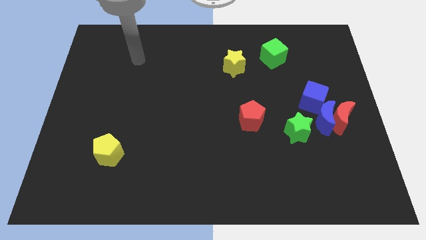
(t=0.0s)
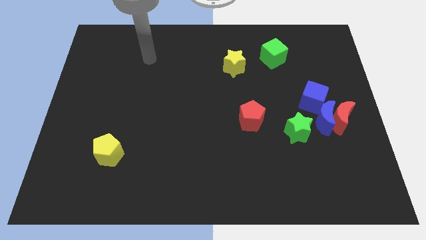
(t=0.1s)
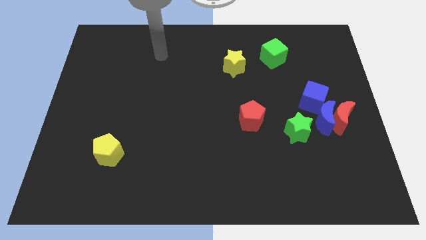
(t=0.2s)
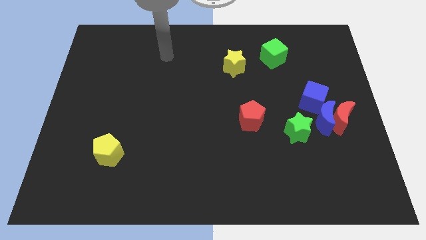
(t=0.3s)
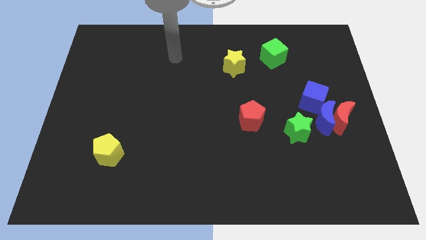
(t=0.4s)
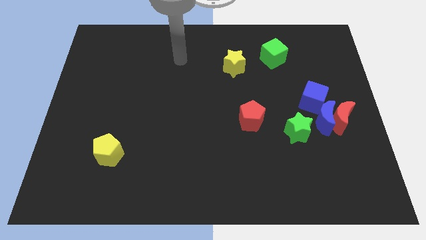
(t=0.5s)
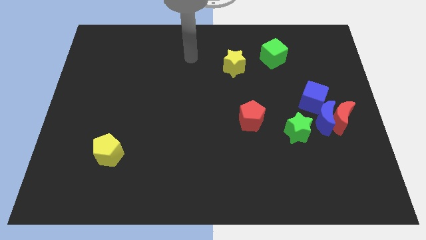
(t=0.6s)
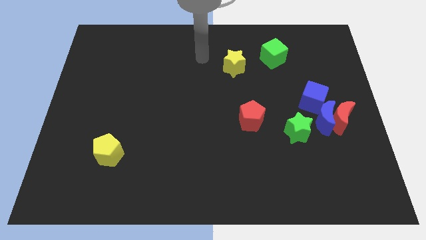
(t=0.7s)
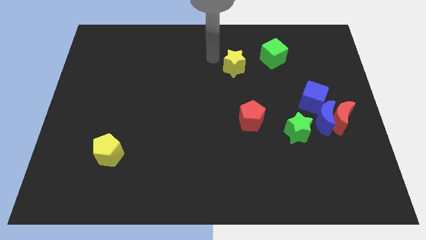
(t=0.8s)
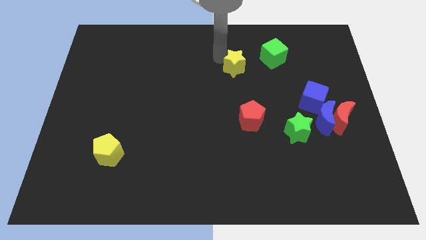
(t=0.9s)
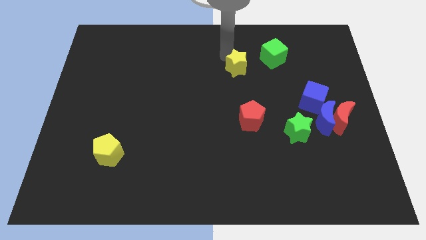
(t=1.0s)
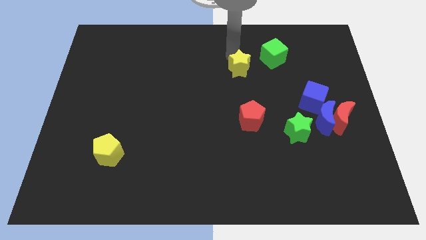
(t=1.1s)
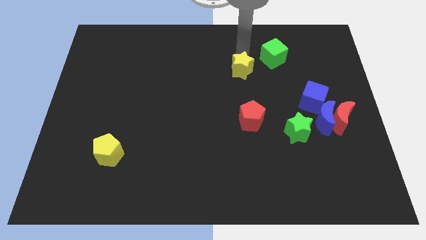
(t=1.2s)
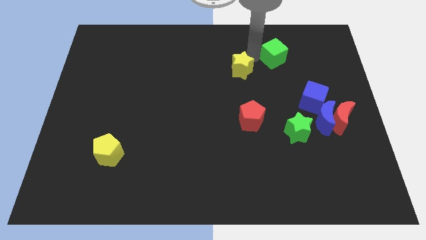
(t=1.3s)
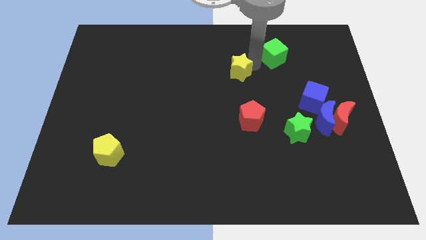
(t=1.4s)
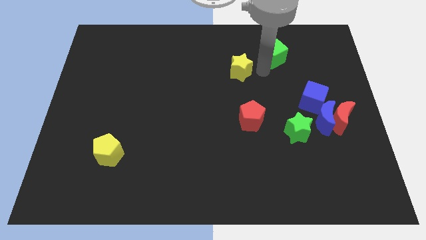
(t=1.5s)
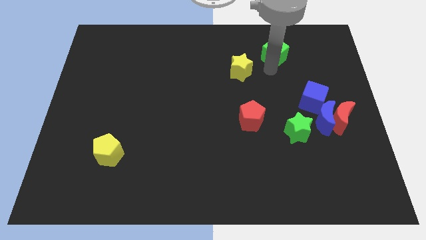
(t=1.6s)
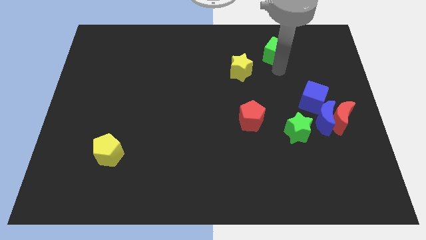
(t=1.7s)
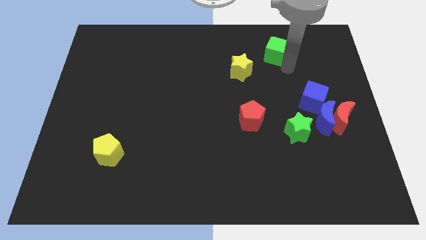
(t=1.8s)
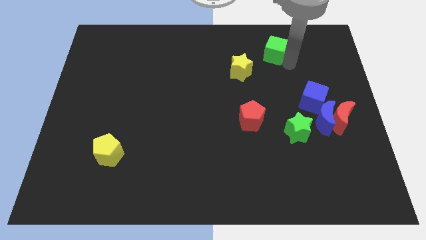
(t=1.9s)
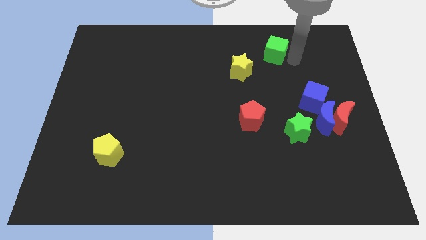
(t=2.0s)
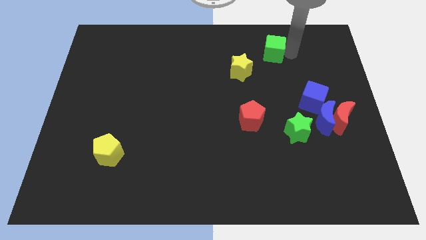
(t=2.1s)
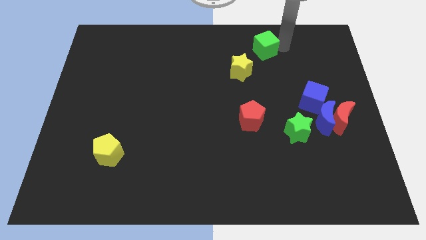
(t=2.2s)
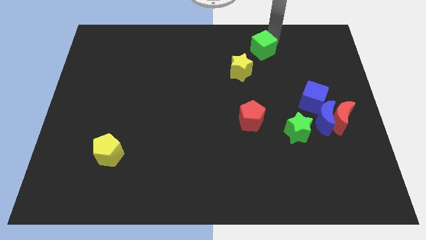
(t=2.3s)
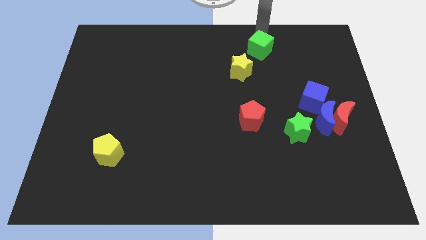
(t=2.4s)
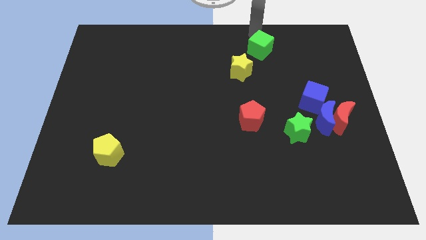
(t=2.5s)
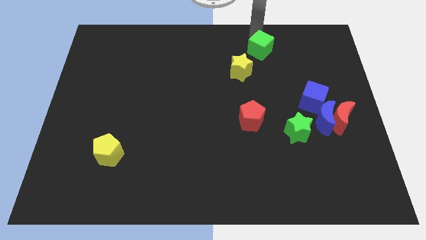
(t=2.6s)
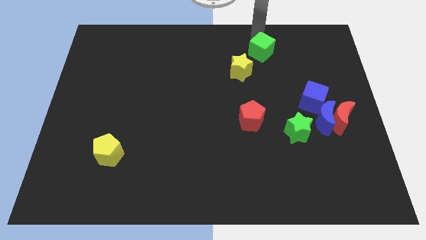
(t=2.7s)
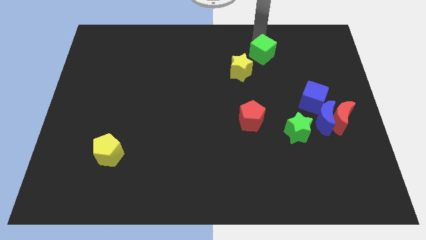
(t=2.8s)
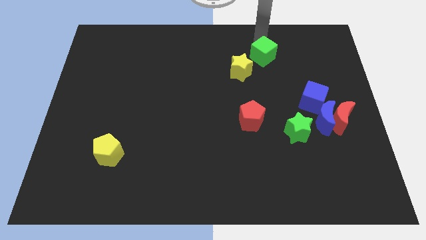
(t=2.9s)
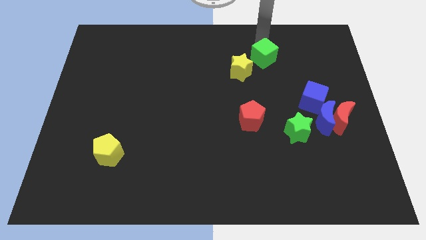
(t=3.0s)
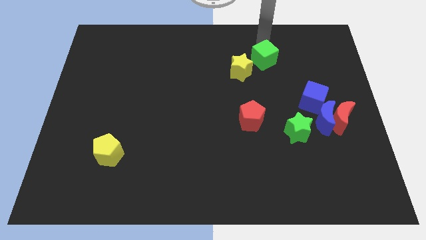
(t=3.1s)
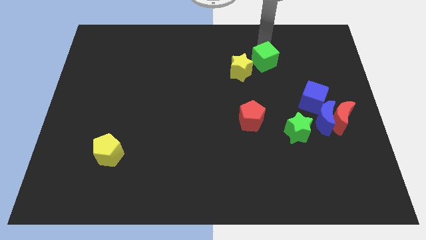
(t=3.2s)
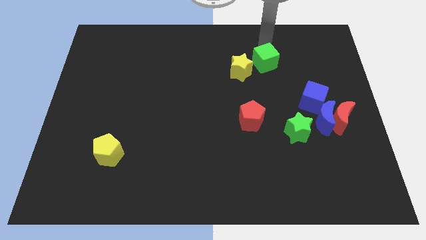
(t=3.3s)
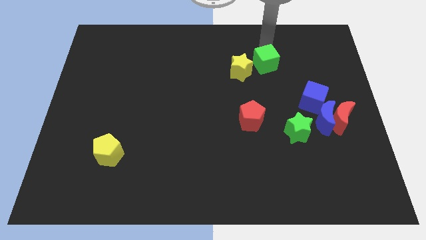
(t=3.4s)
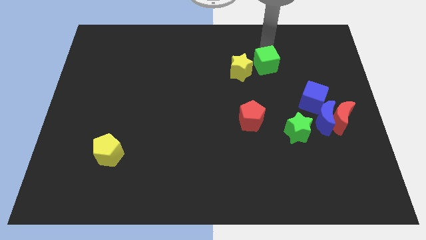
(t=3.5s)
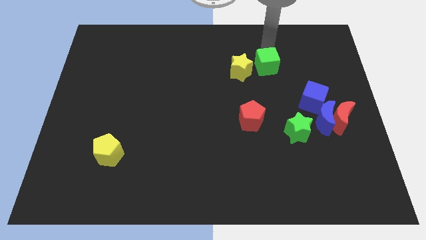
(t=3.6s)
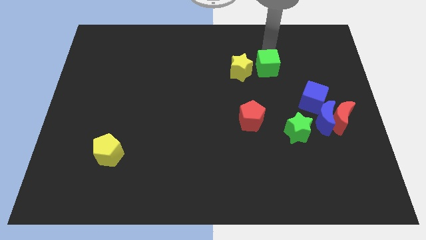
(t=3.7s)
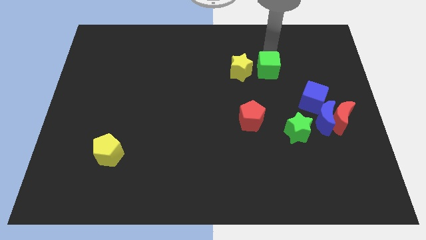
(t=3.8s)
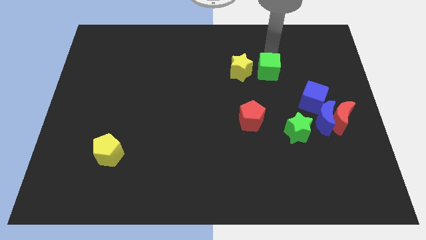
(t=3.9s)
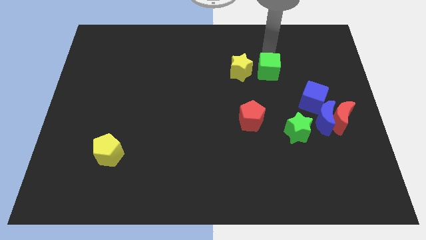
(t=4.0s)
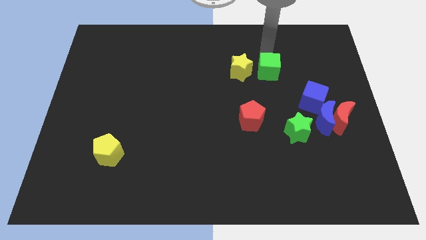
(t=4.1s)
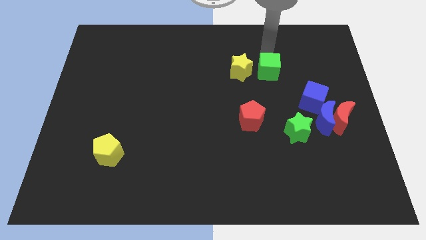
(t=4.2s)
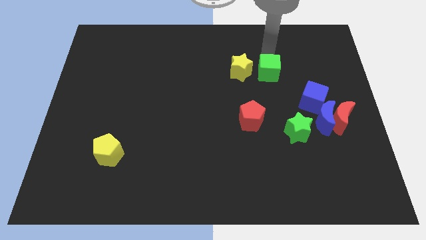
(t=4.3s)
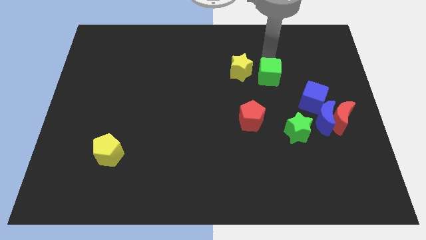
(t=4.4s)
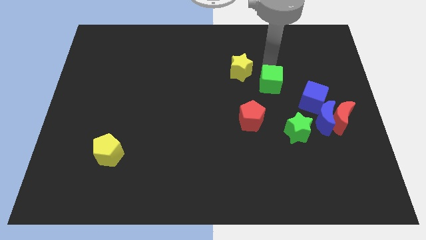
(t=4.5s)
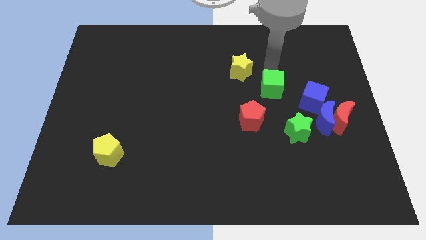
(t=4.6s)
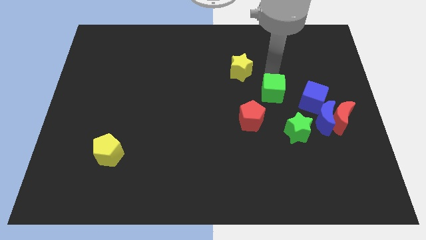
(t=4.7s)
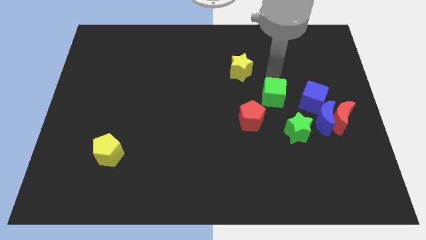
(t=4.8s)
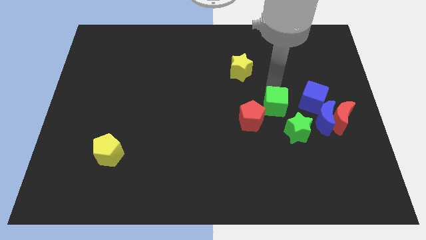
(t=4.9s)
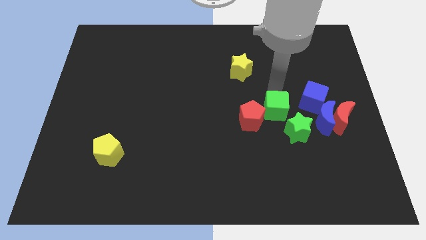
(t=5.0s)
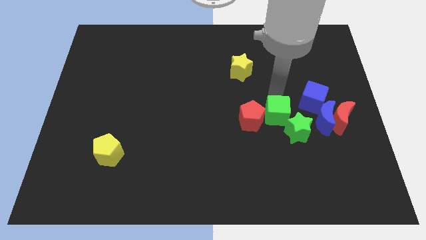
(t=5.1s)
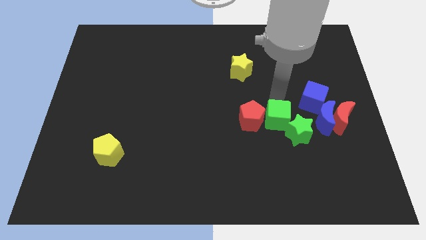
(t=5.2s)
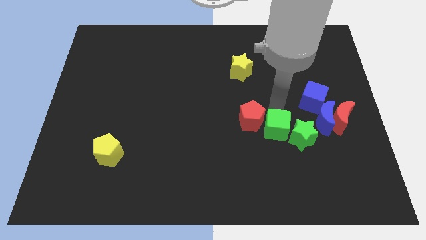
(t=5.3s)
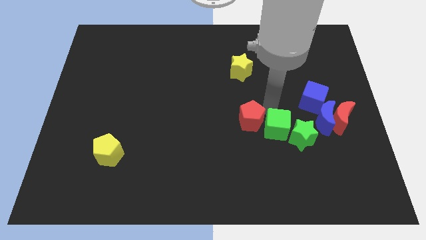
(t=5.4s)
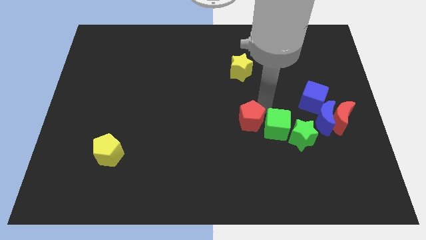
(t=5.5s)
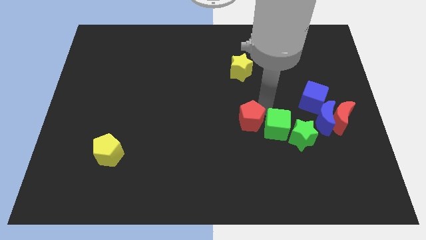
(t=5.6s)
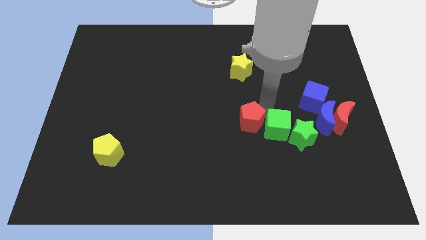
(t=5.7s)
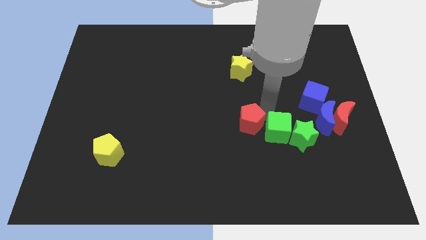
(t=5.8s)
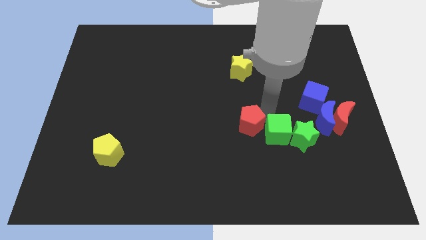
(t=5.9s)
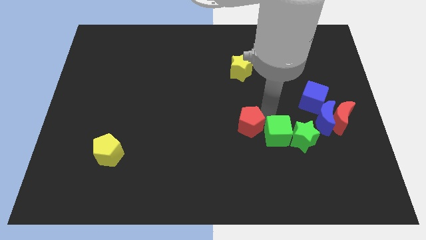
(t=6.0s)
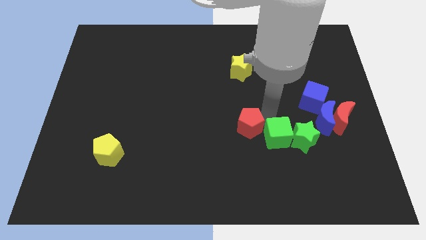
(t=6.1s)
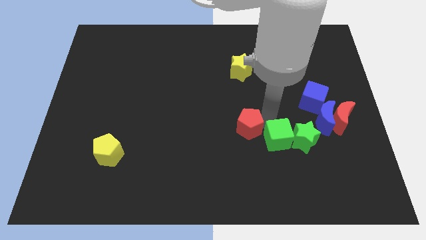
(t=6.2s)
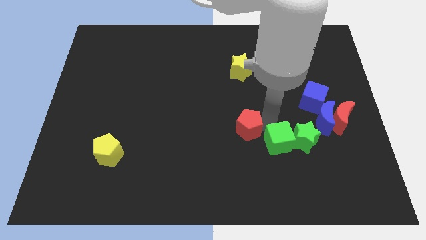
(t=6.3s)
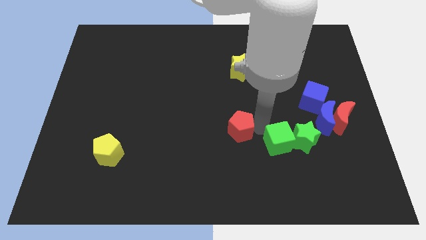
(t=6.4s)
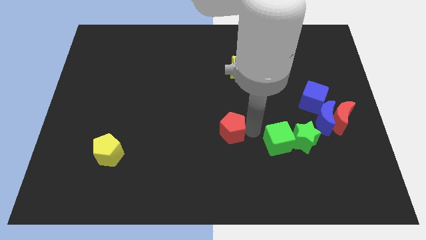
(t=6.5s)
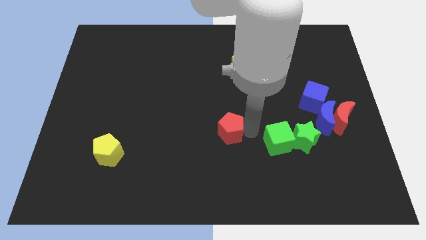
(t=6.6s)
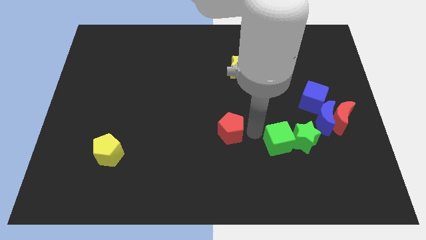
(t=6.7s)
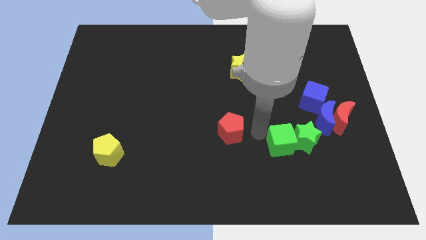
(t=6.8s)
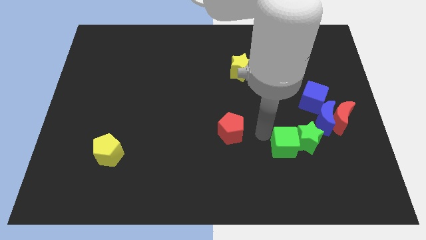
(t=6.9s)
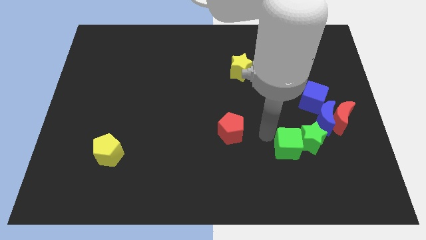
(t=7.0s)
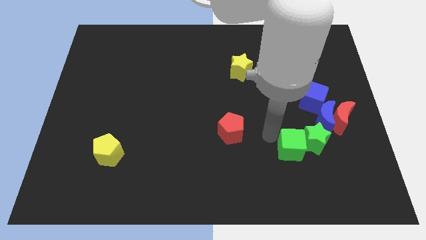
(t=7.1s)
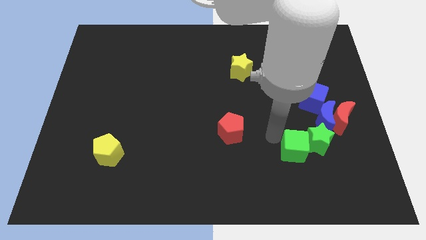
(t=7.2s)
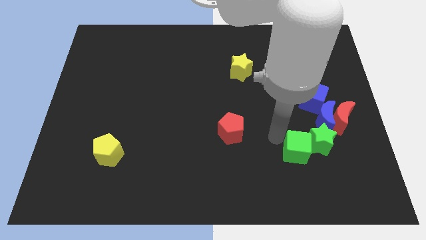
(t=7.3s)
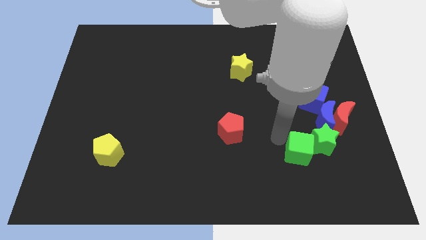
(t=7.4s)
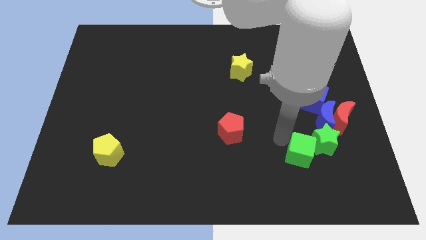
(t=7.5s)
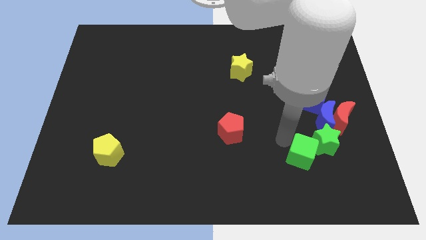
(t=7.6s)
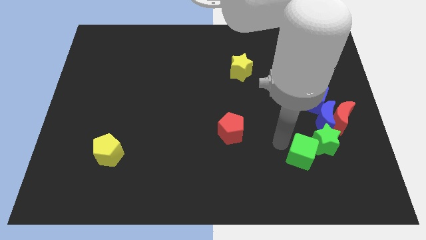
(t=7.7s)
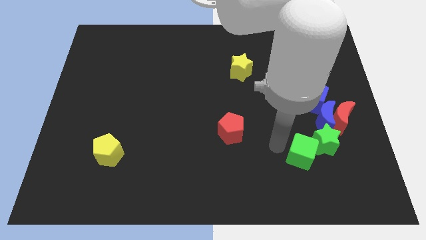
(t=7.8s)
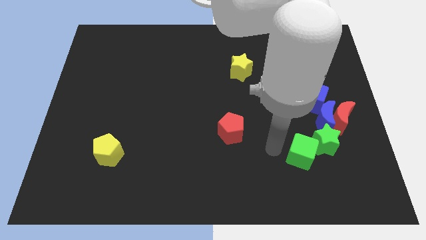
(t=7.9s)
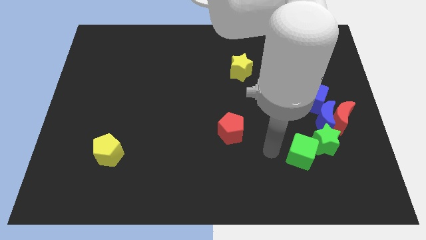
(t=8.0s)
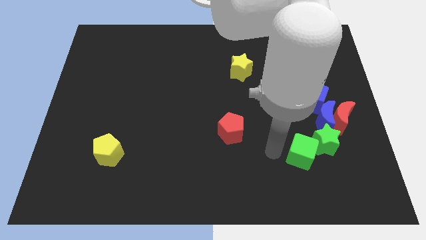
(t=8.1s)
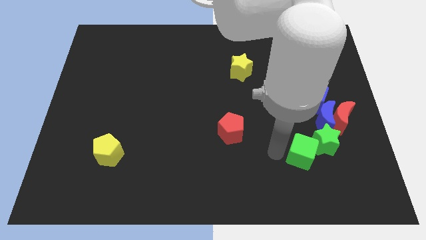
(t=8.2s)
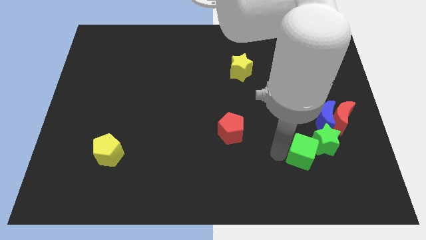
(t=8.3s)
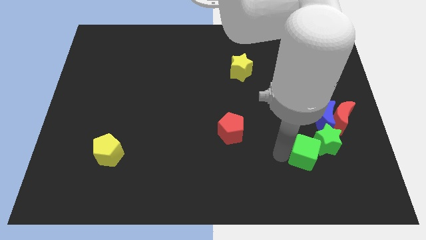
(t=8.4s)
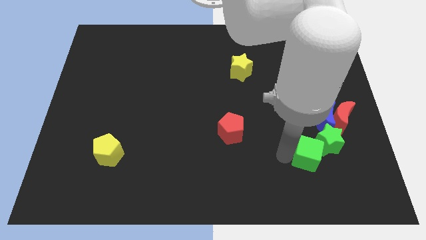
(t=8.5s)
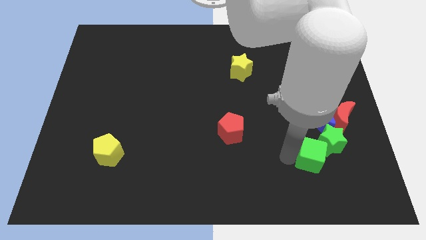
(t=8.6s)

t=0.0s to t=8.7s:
push the green cube below the blue moon

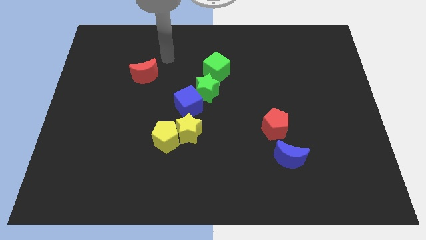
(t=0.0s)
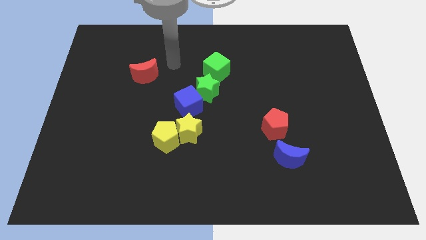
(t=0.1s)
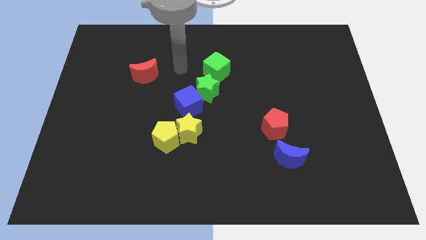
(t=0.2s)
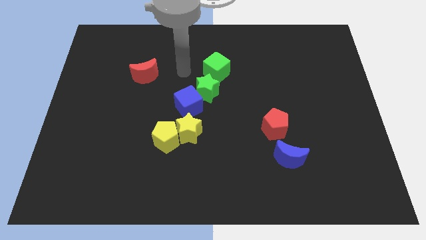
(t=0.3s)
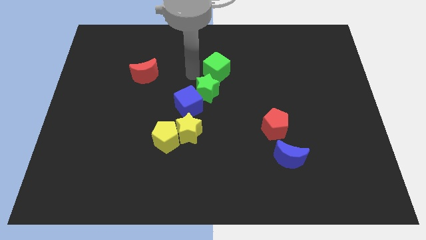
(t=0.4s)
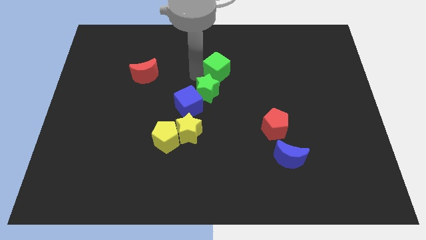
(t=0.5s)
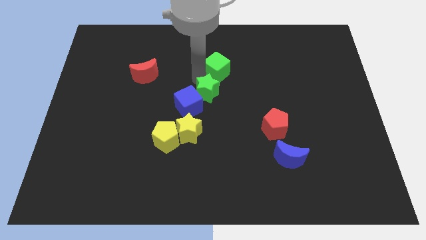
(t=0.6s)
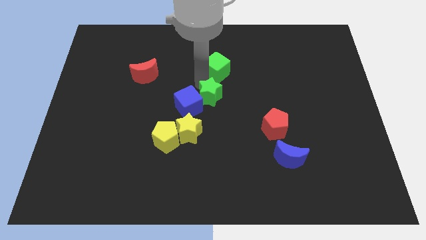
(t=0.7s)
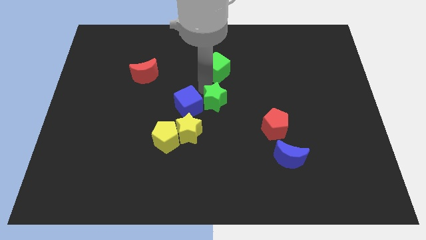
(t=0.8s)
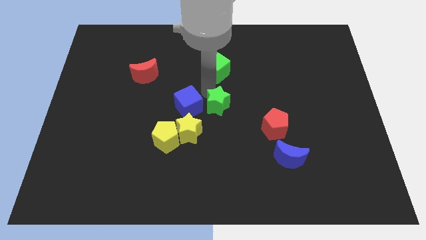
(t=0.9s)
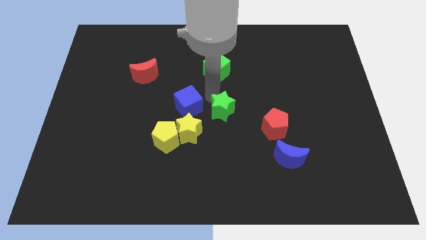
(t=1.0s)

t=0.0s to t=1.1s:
push the green star just left of the red pentagon
